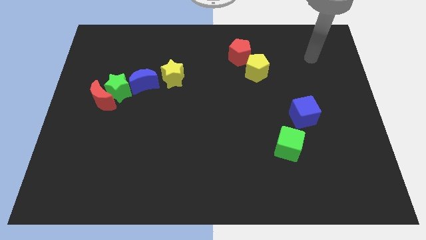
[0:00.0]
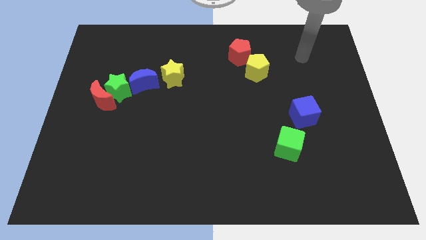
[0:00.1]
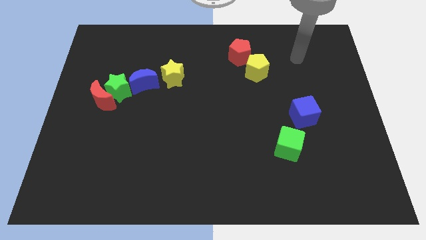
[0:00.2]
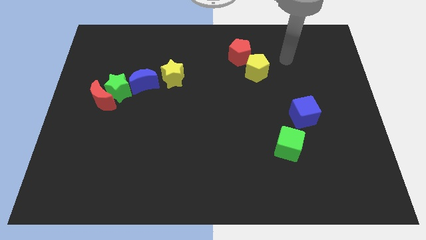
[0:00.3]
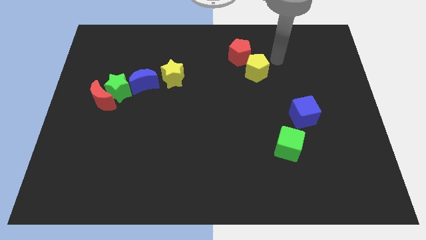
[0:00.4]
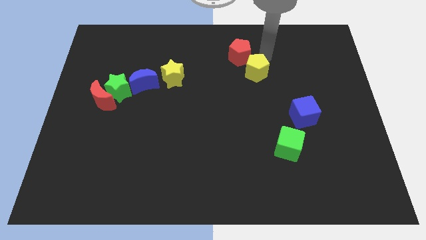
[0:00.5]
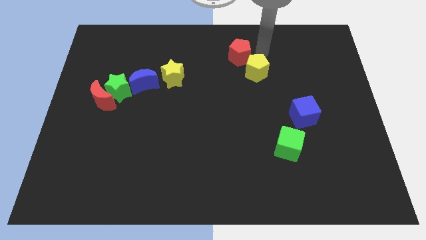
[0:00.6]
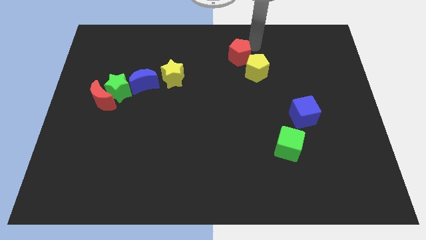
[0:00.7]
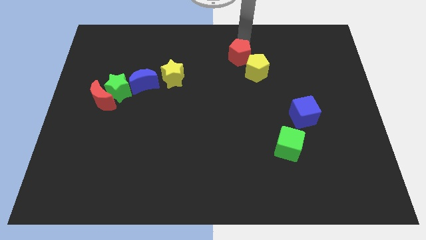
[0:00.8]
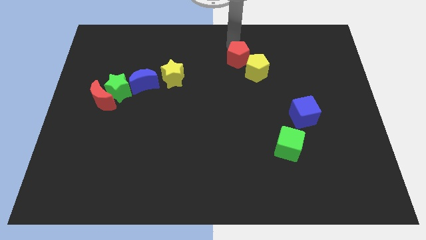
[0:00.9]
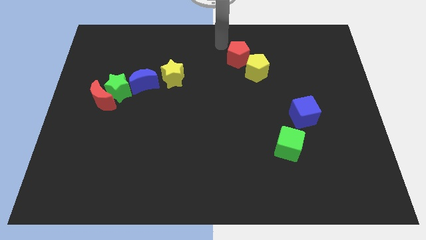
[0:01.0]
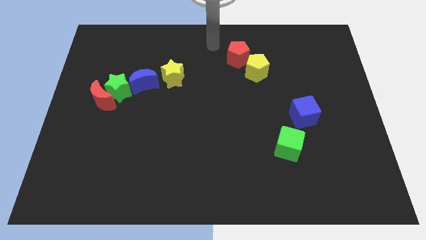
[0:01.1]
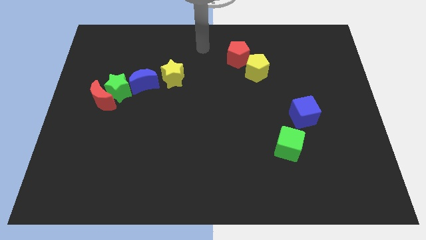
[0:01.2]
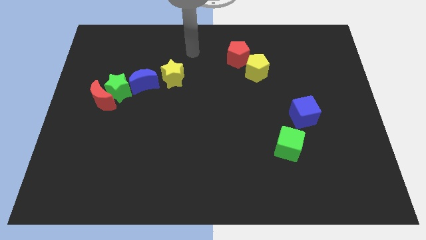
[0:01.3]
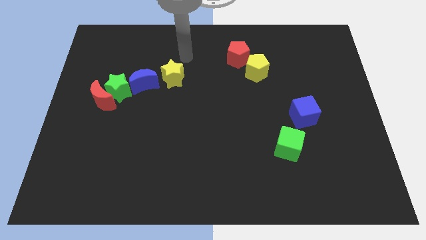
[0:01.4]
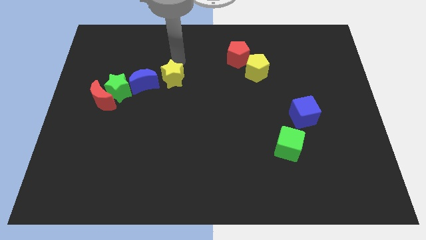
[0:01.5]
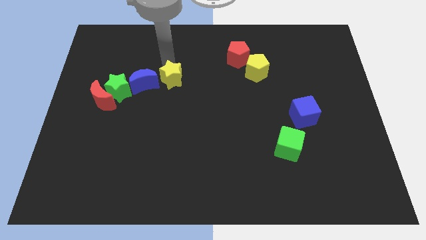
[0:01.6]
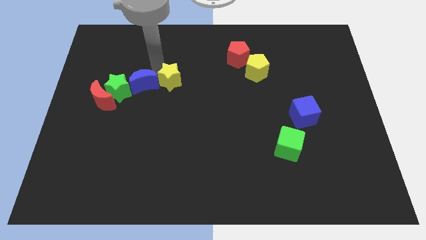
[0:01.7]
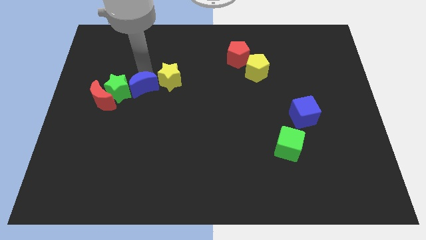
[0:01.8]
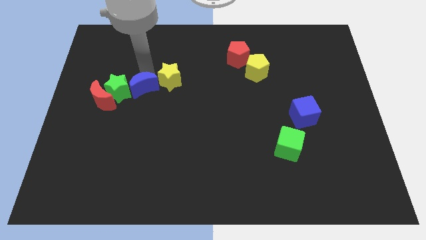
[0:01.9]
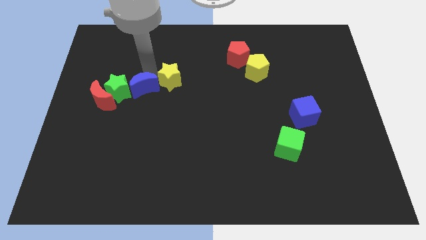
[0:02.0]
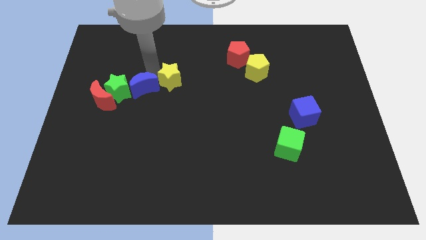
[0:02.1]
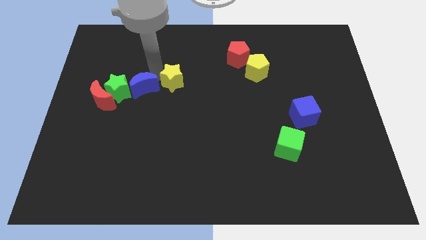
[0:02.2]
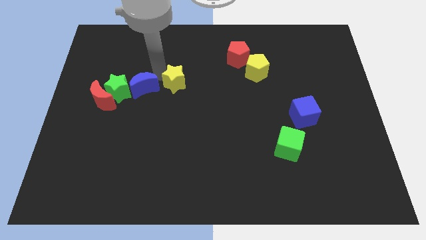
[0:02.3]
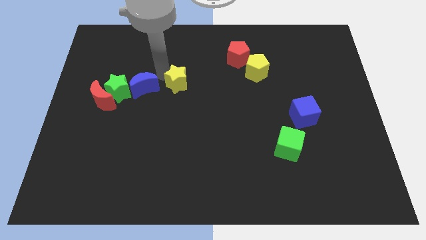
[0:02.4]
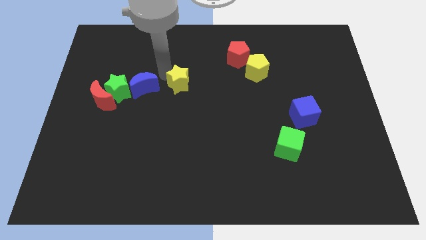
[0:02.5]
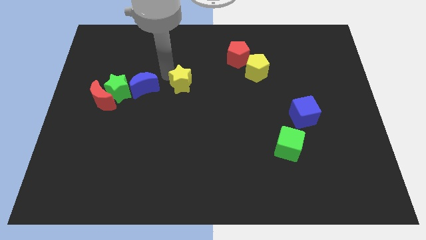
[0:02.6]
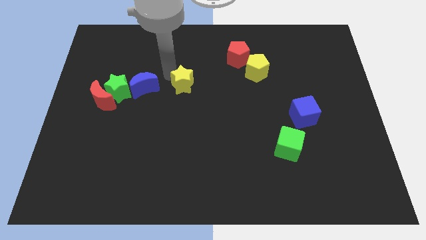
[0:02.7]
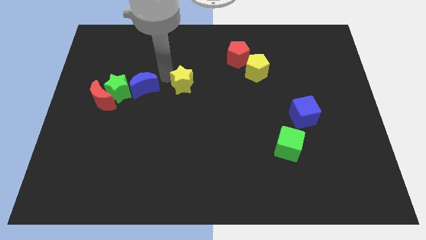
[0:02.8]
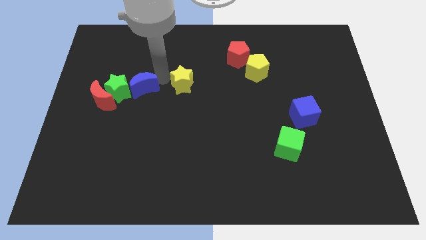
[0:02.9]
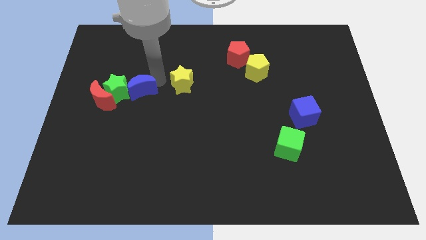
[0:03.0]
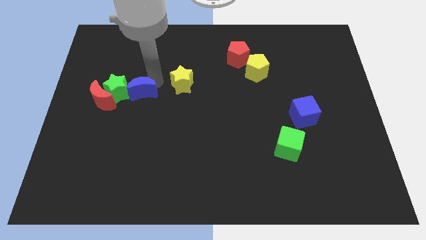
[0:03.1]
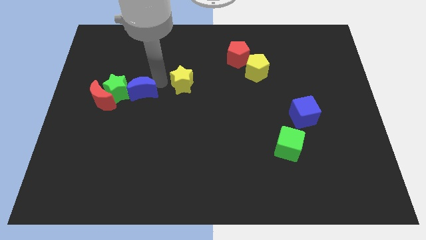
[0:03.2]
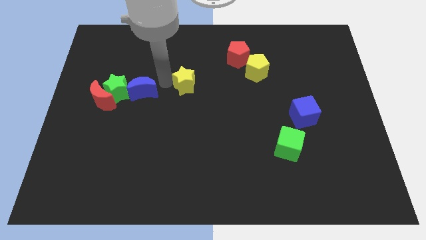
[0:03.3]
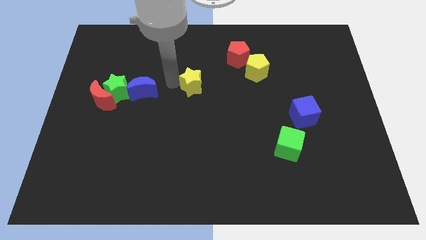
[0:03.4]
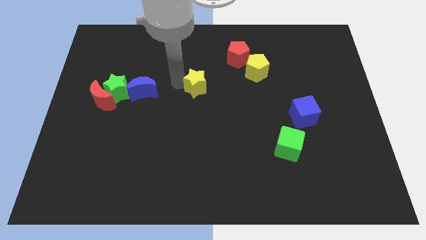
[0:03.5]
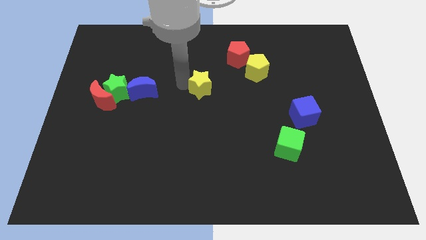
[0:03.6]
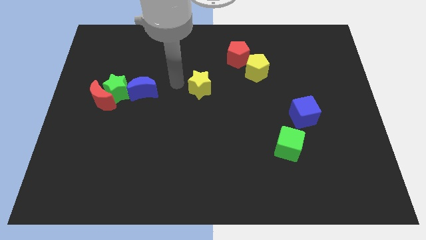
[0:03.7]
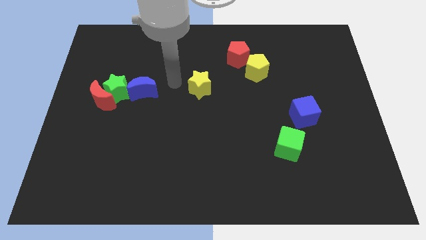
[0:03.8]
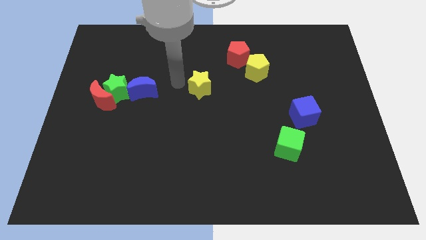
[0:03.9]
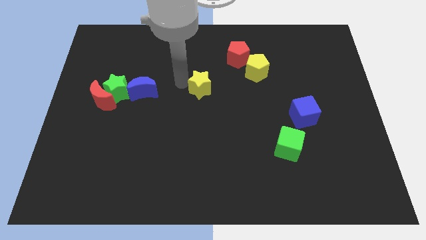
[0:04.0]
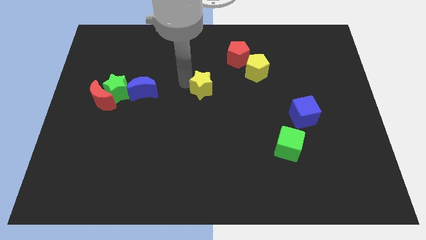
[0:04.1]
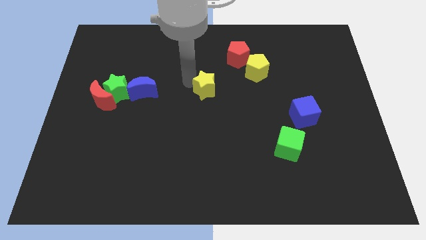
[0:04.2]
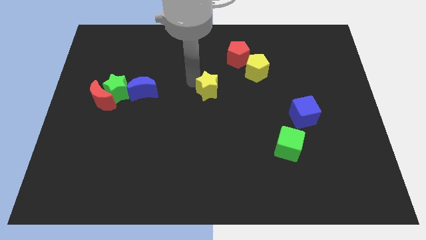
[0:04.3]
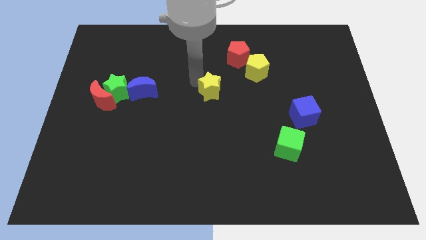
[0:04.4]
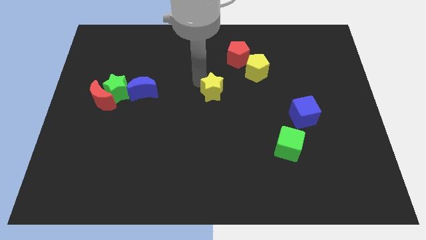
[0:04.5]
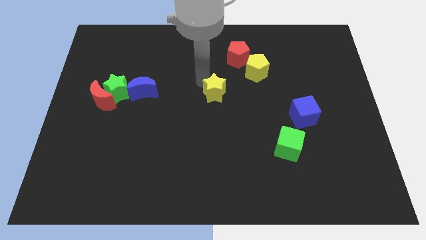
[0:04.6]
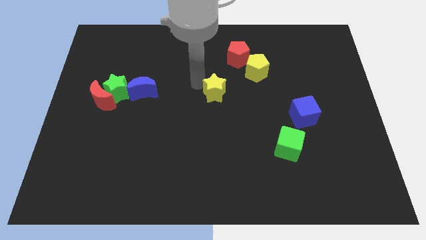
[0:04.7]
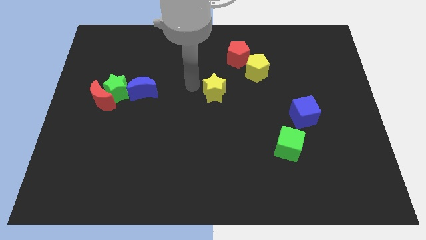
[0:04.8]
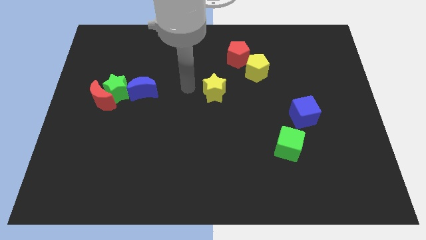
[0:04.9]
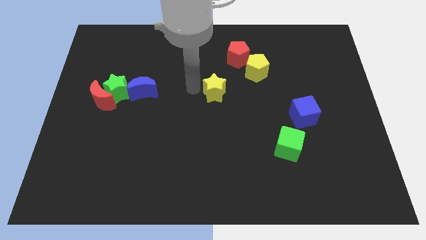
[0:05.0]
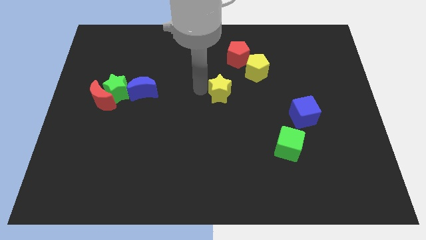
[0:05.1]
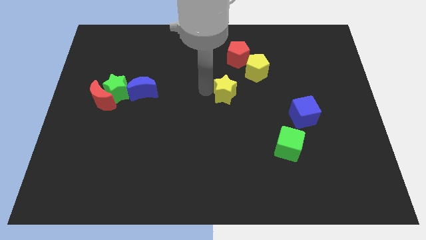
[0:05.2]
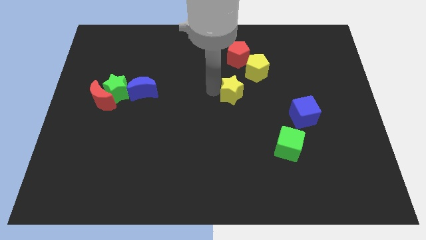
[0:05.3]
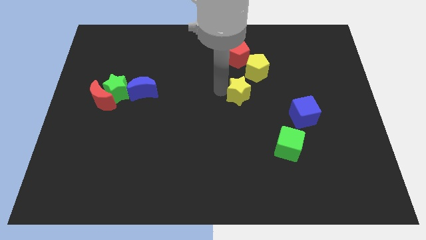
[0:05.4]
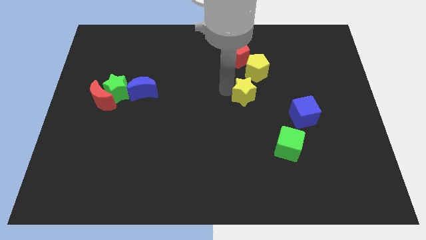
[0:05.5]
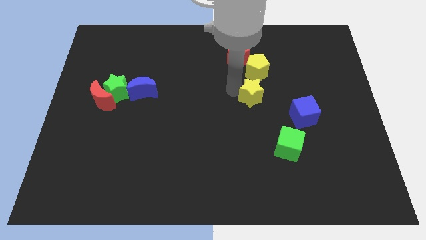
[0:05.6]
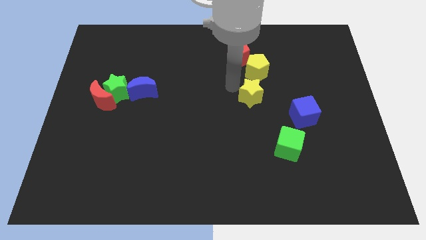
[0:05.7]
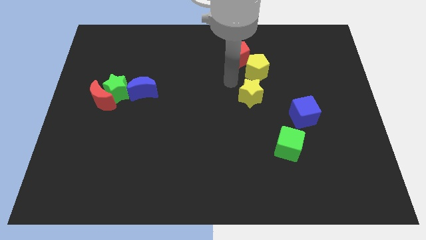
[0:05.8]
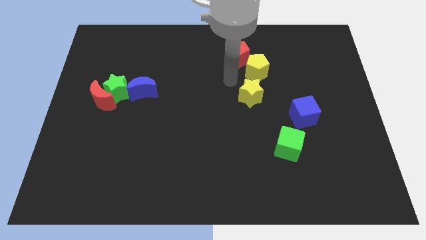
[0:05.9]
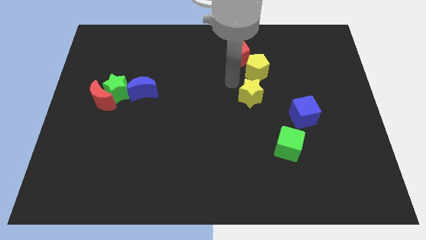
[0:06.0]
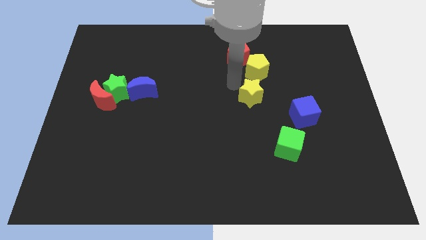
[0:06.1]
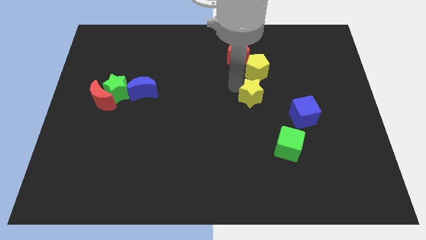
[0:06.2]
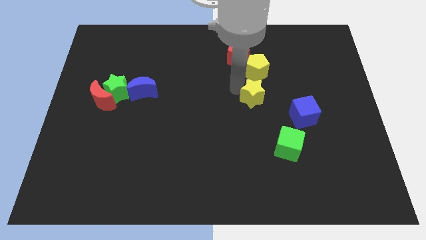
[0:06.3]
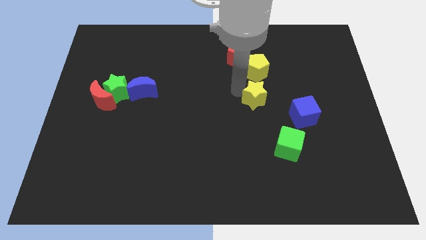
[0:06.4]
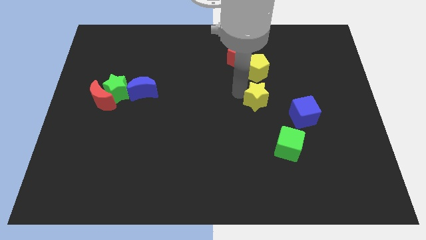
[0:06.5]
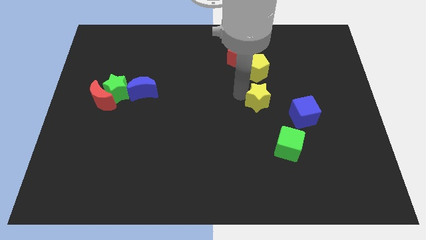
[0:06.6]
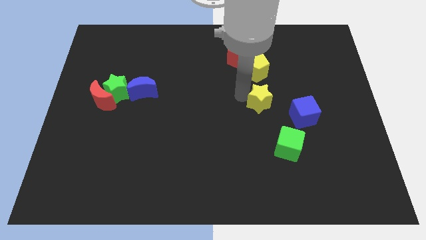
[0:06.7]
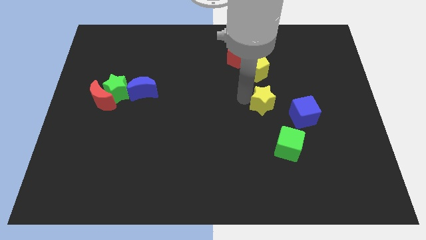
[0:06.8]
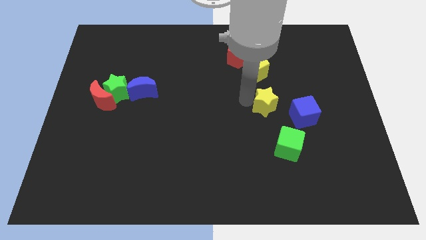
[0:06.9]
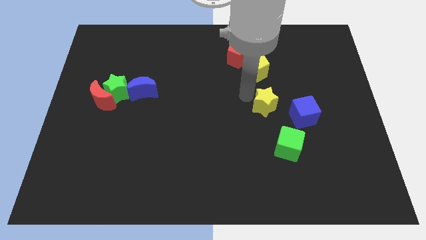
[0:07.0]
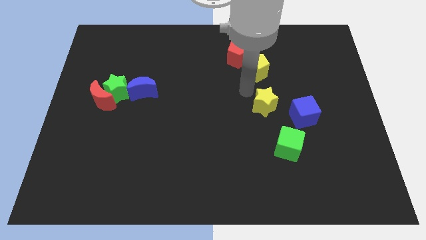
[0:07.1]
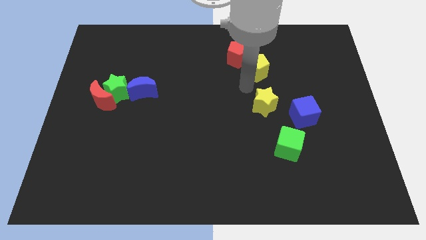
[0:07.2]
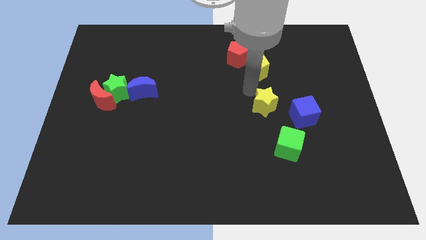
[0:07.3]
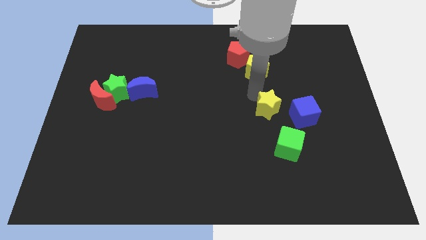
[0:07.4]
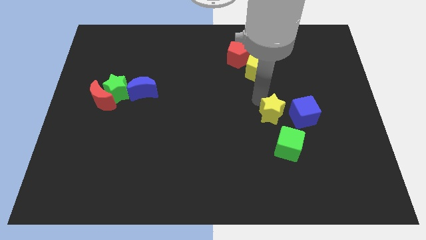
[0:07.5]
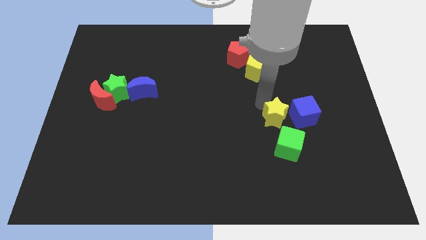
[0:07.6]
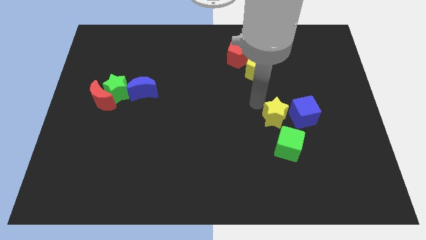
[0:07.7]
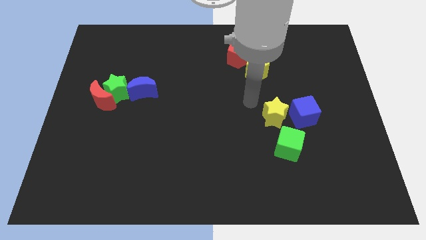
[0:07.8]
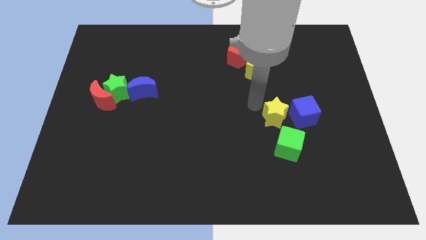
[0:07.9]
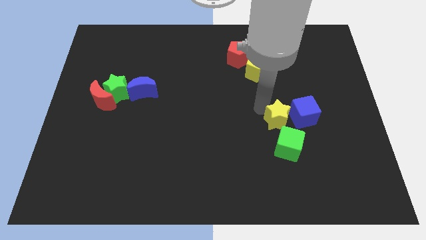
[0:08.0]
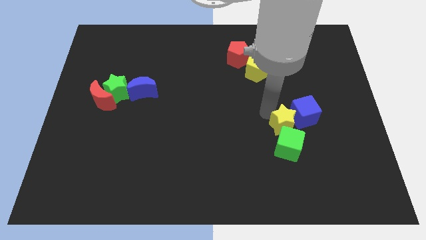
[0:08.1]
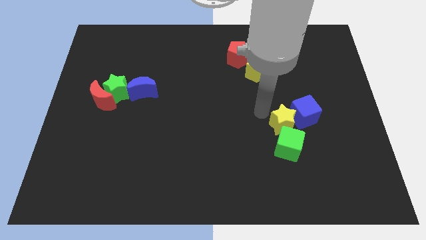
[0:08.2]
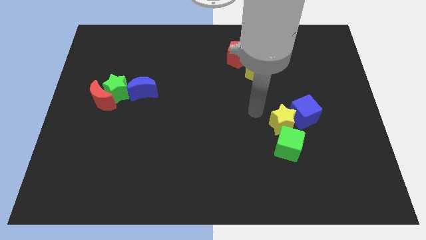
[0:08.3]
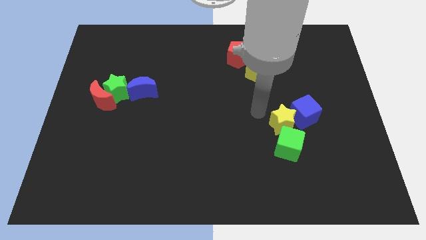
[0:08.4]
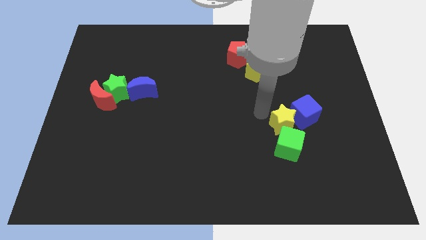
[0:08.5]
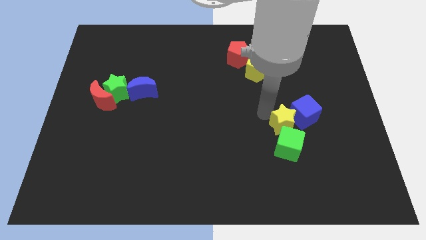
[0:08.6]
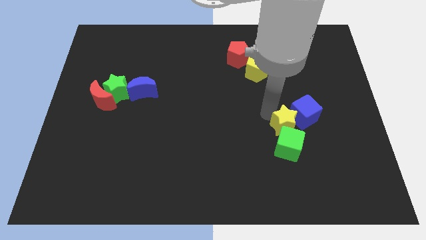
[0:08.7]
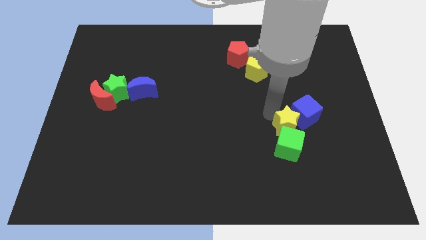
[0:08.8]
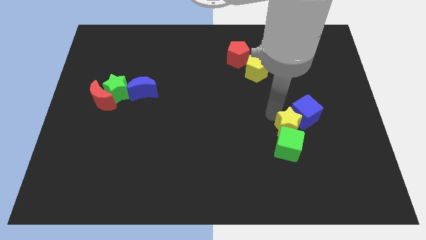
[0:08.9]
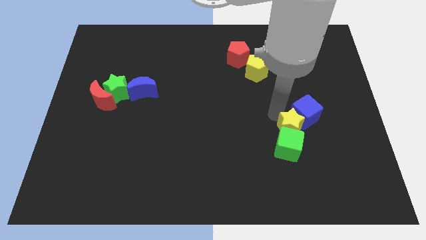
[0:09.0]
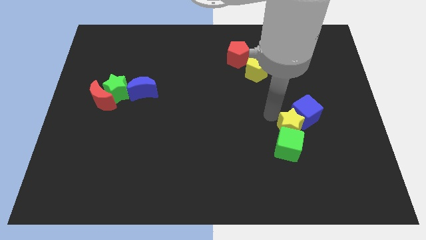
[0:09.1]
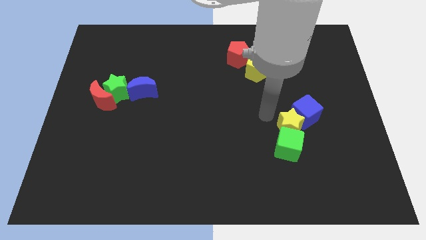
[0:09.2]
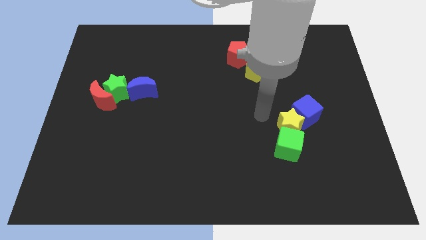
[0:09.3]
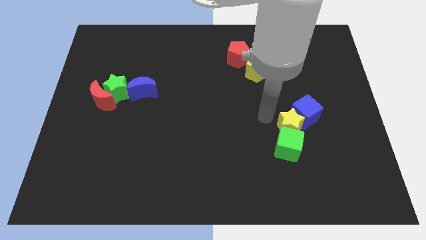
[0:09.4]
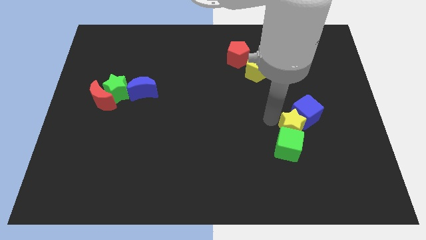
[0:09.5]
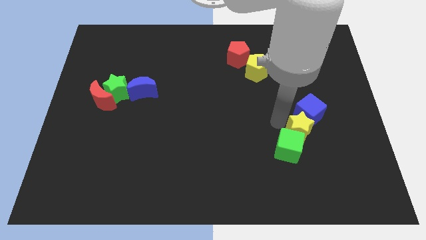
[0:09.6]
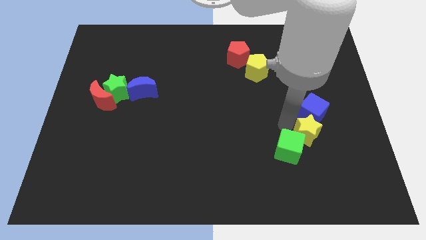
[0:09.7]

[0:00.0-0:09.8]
slide the yellow star just right of the green cube
